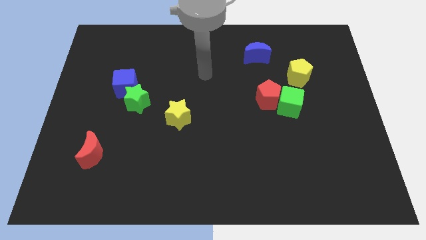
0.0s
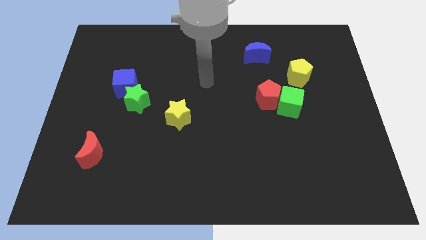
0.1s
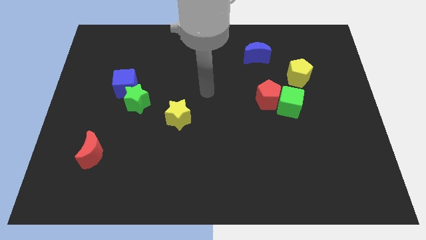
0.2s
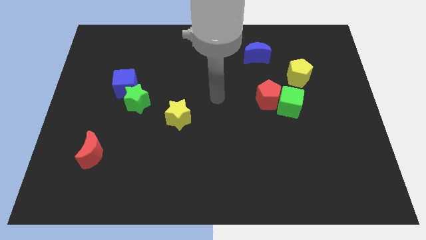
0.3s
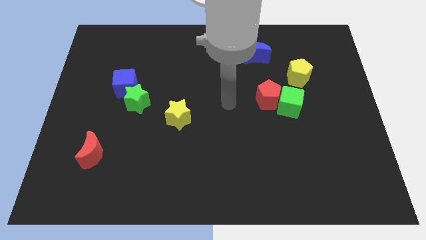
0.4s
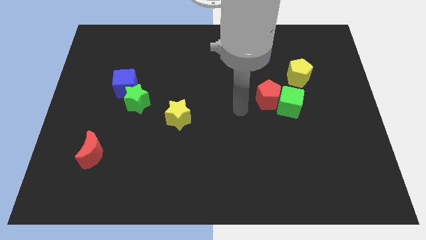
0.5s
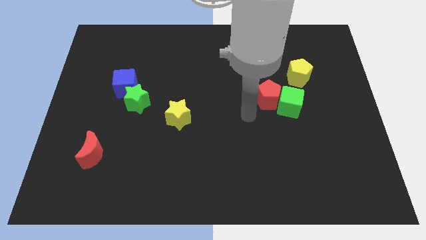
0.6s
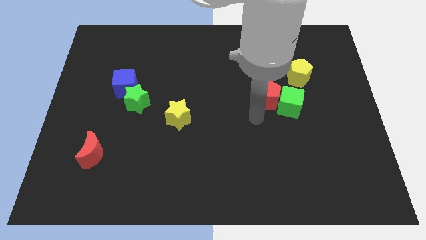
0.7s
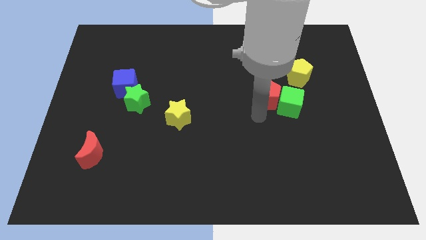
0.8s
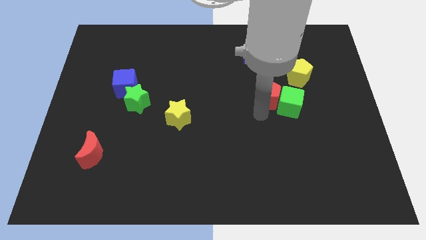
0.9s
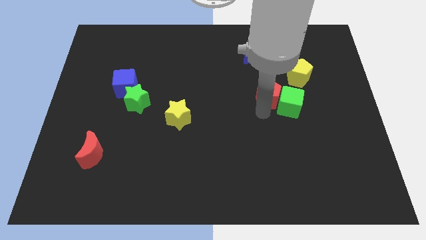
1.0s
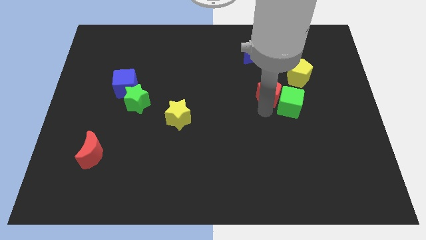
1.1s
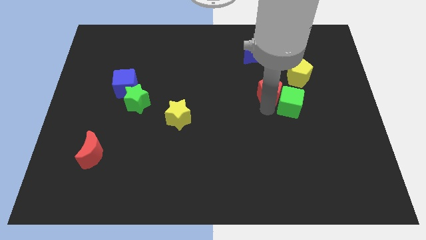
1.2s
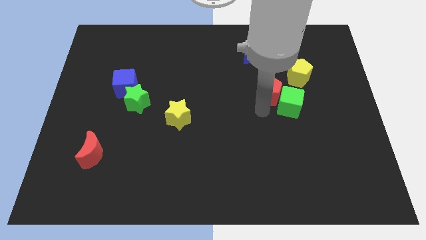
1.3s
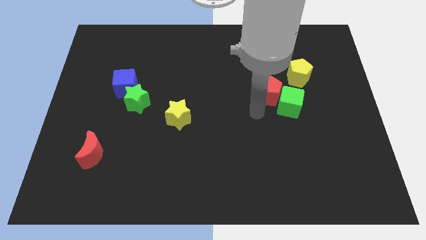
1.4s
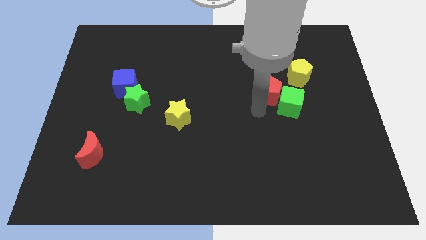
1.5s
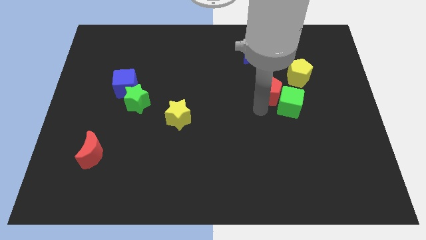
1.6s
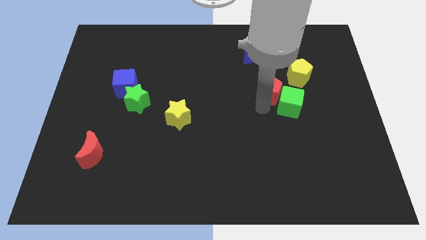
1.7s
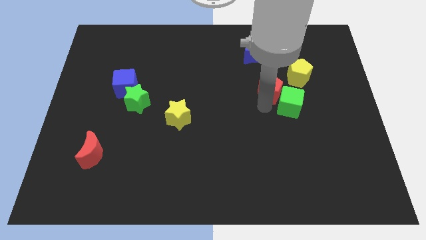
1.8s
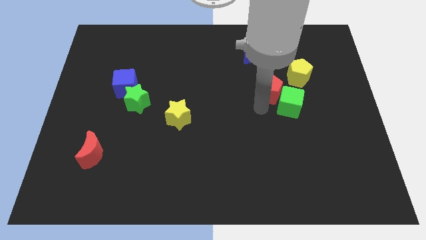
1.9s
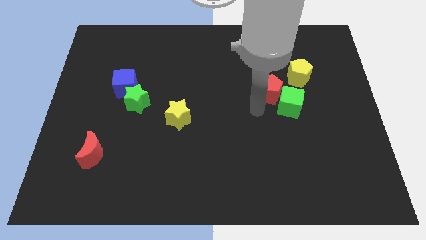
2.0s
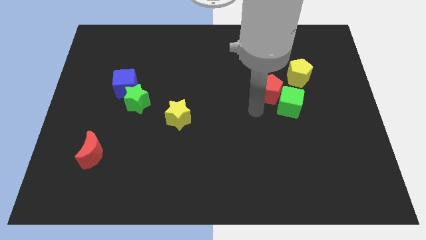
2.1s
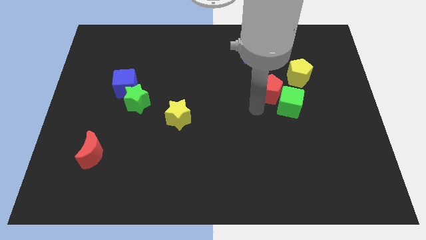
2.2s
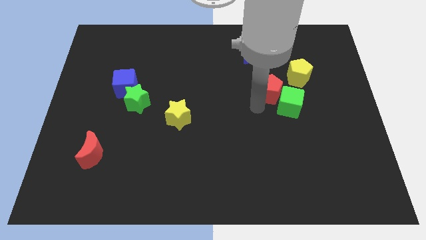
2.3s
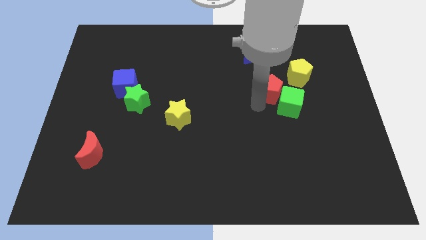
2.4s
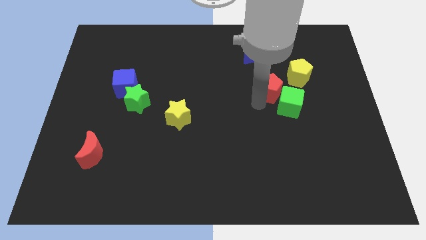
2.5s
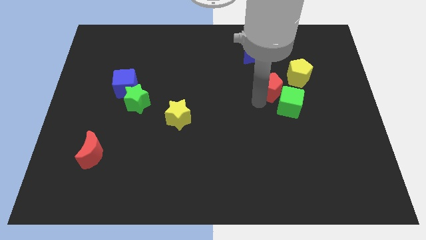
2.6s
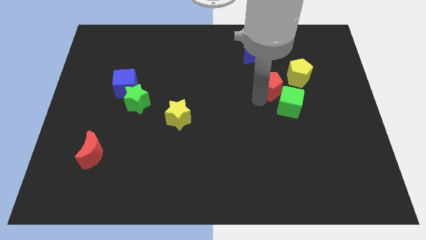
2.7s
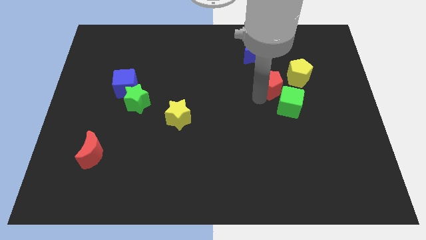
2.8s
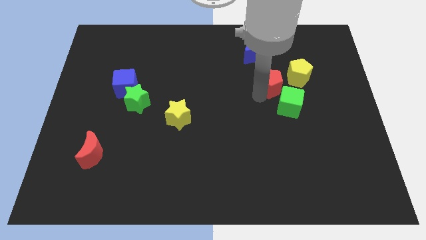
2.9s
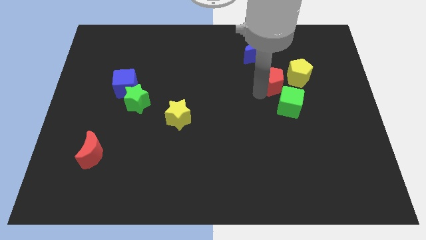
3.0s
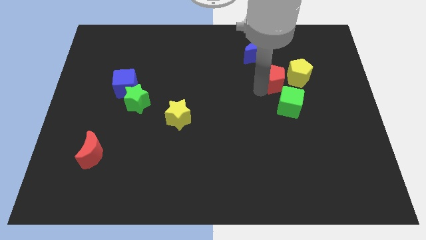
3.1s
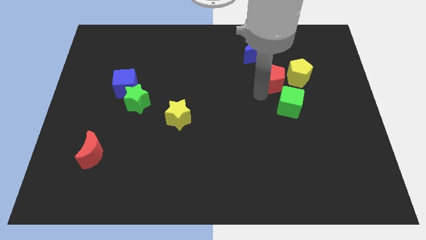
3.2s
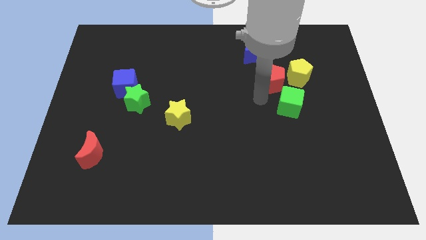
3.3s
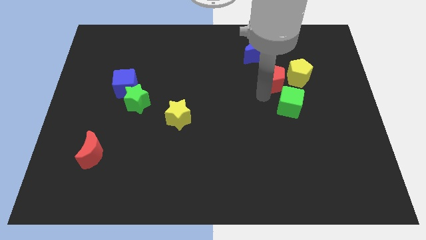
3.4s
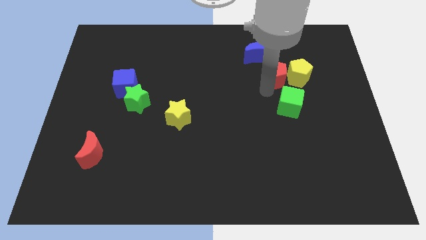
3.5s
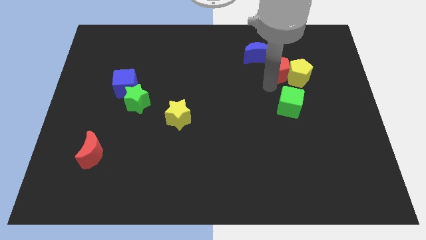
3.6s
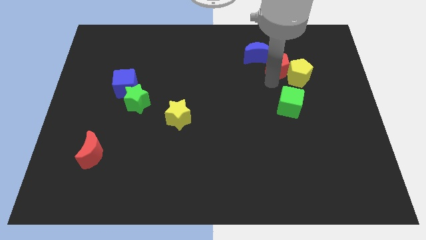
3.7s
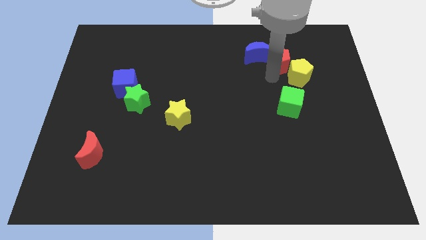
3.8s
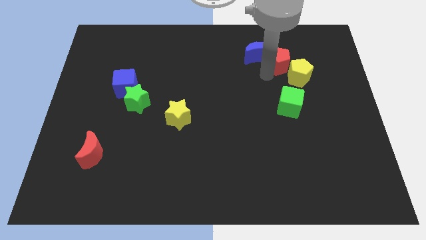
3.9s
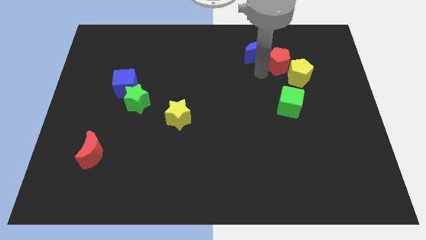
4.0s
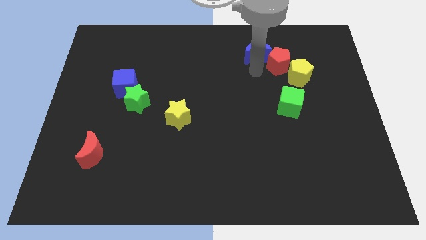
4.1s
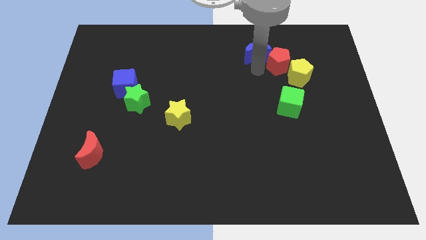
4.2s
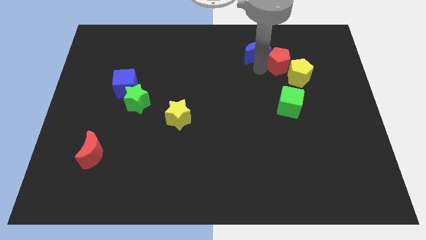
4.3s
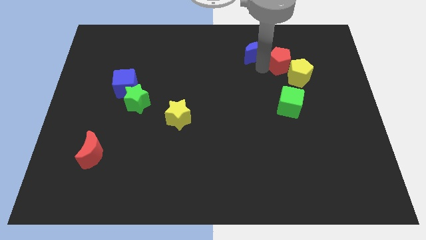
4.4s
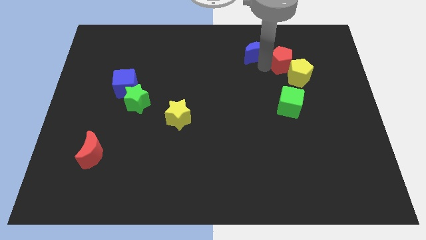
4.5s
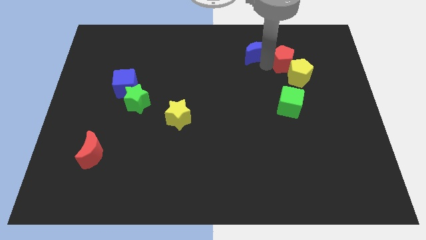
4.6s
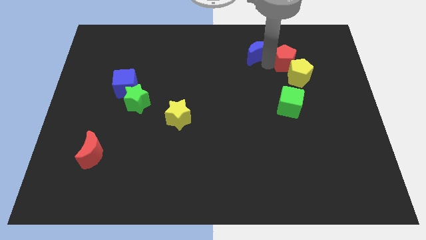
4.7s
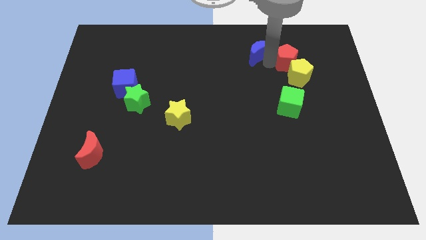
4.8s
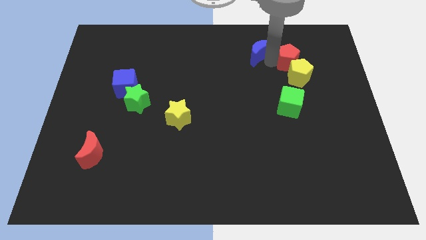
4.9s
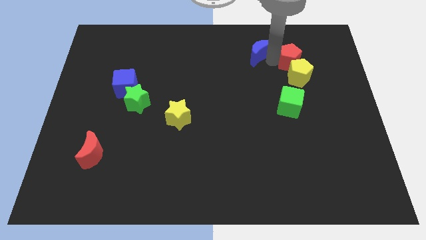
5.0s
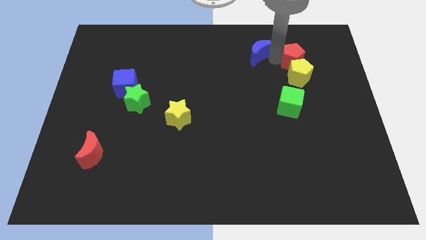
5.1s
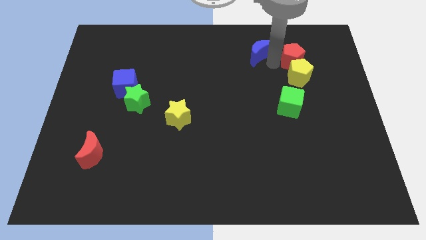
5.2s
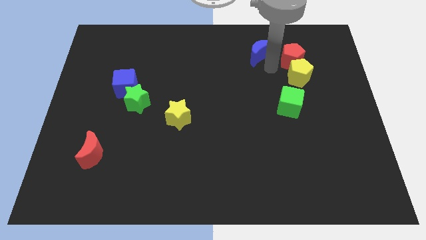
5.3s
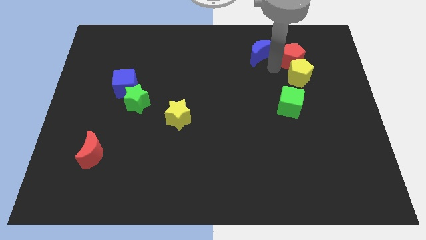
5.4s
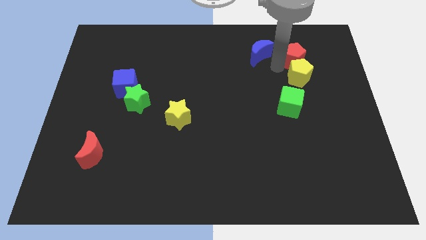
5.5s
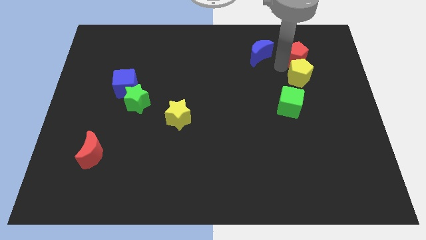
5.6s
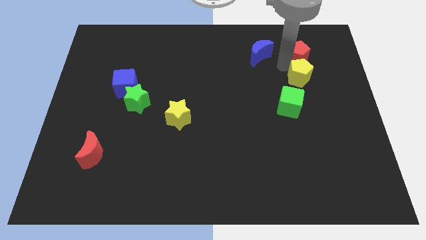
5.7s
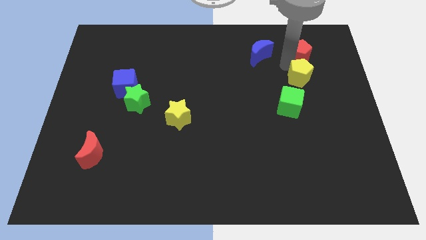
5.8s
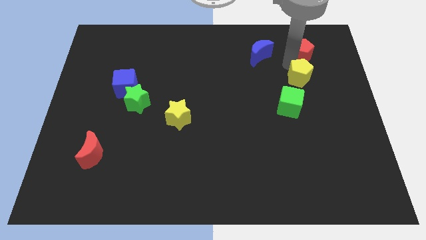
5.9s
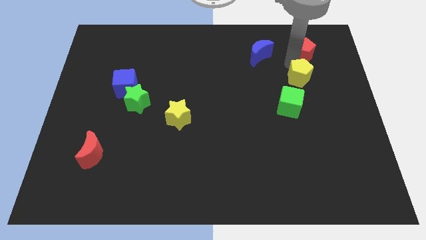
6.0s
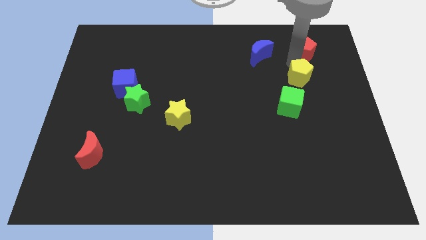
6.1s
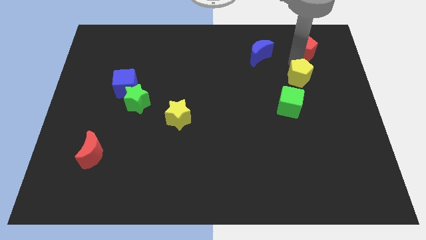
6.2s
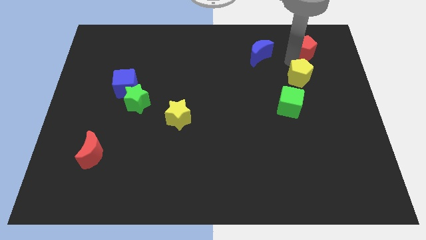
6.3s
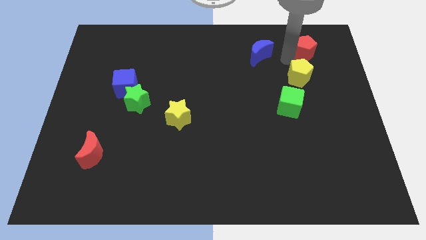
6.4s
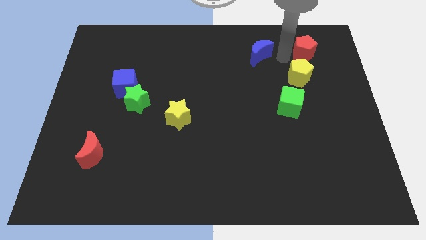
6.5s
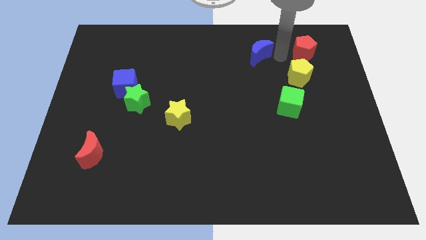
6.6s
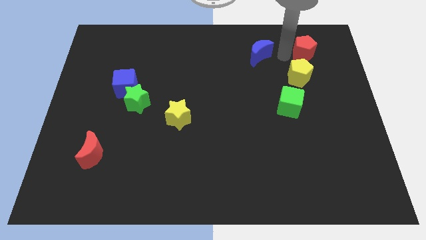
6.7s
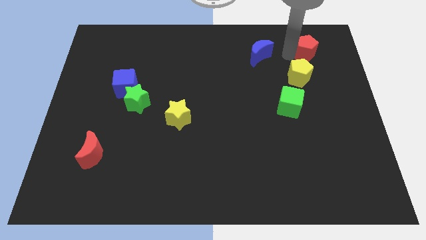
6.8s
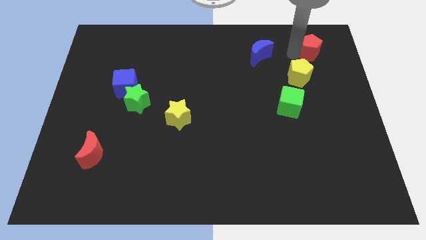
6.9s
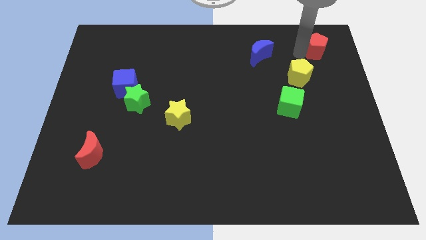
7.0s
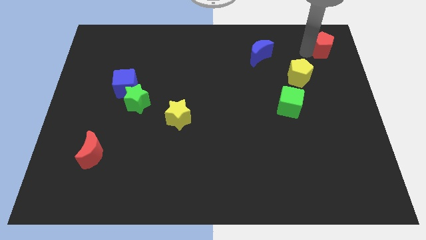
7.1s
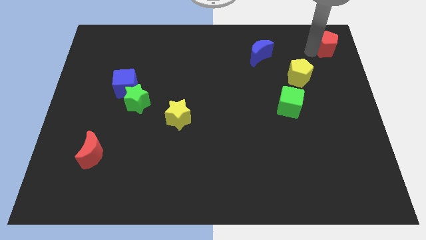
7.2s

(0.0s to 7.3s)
move the red pentagon to the top right
